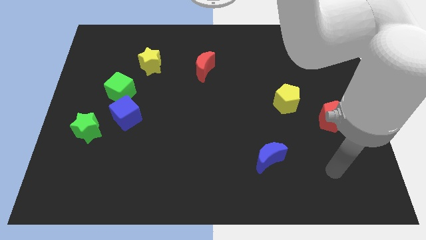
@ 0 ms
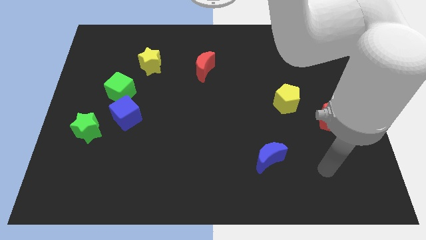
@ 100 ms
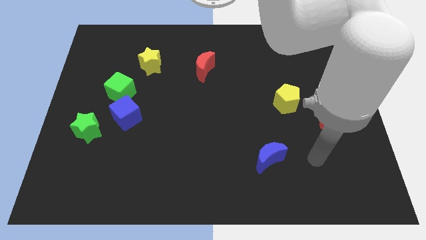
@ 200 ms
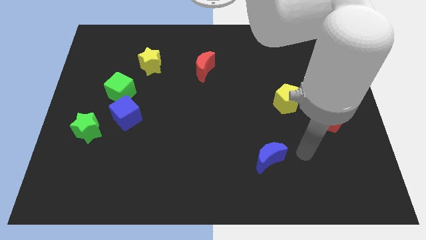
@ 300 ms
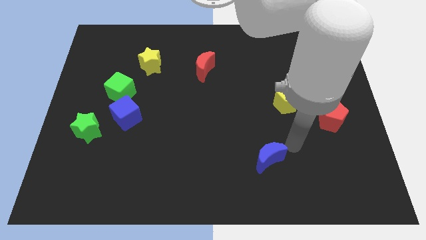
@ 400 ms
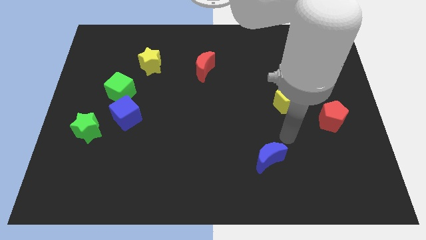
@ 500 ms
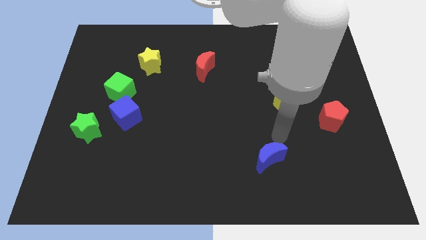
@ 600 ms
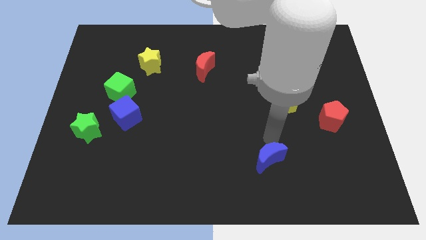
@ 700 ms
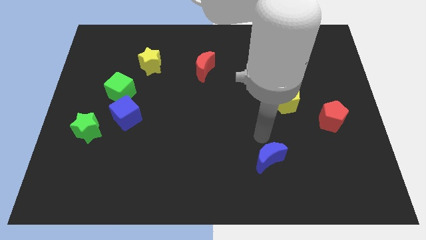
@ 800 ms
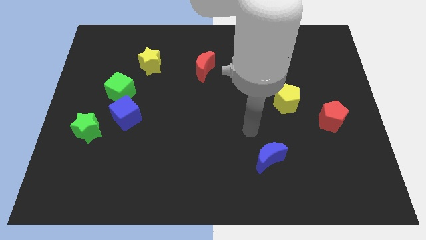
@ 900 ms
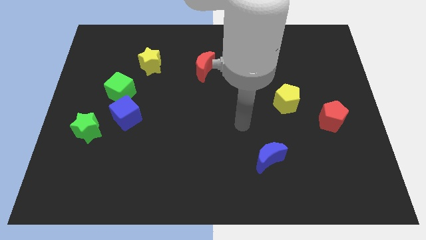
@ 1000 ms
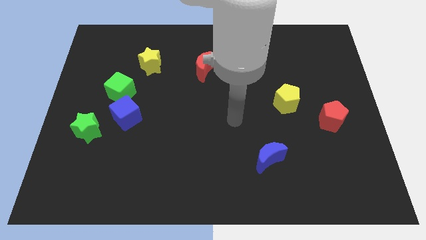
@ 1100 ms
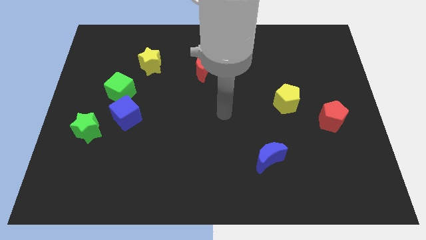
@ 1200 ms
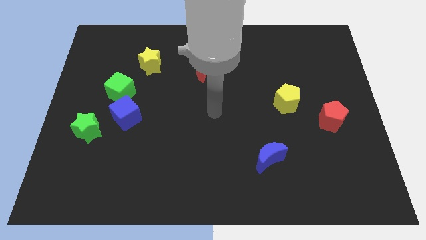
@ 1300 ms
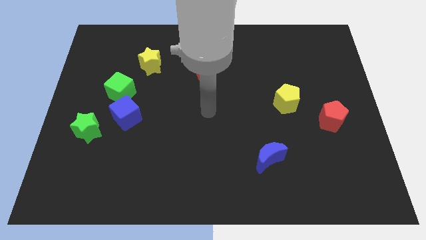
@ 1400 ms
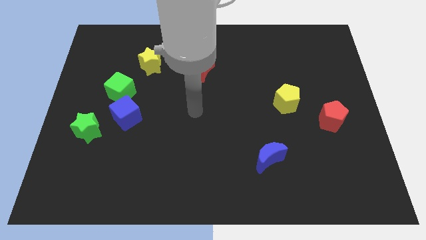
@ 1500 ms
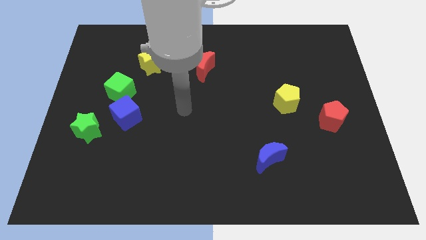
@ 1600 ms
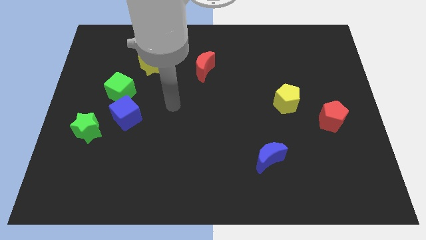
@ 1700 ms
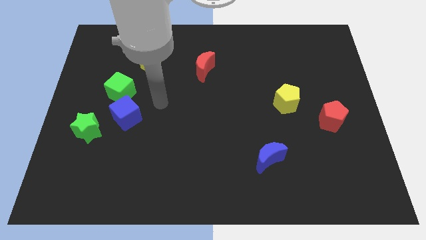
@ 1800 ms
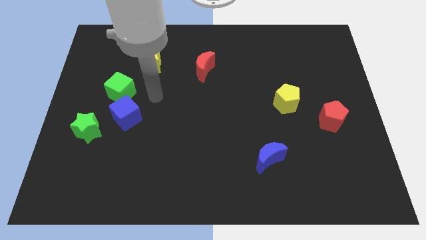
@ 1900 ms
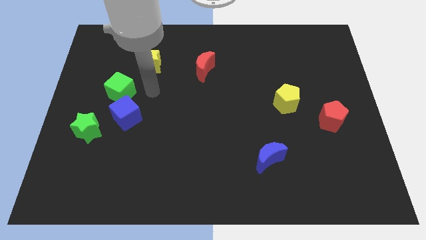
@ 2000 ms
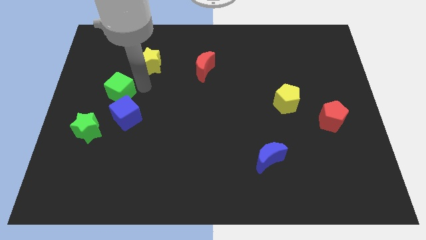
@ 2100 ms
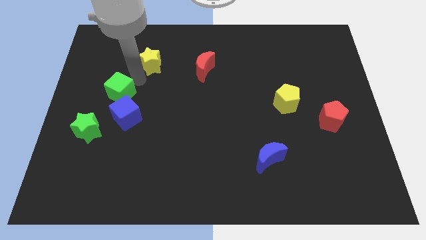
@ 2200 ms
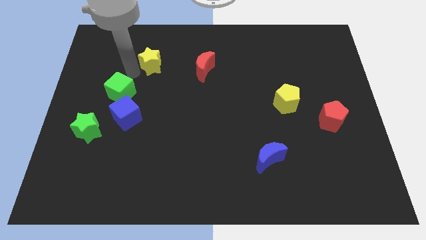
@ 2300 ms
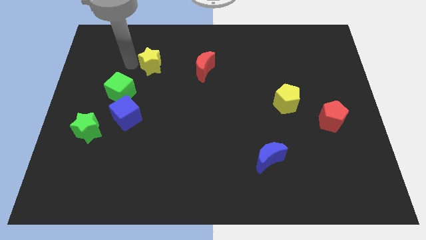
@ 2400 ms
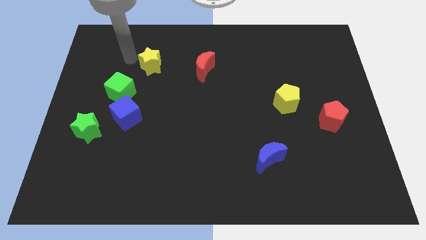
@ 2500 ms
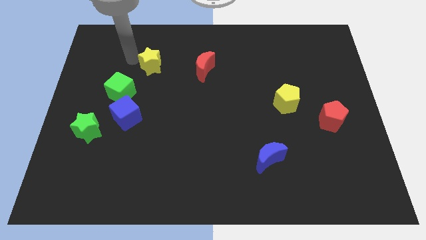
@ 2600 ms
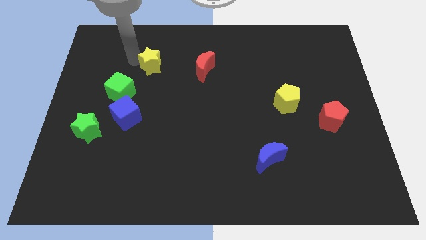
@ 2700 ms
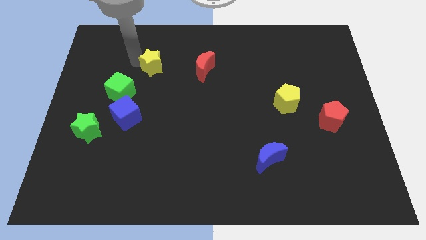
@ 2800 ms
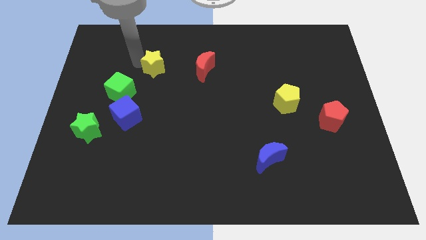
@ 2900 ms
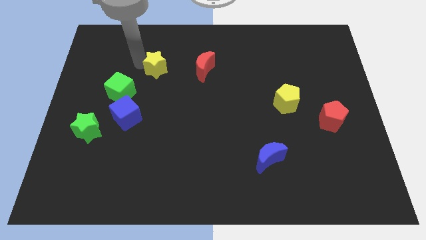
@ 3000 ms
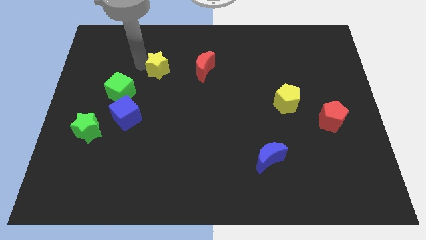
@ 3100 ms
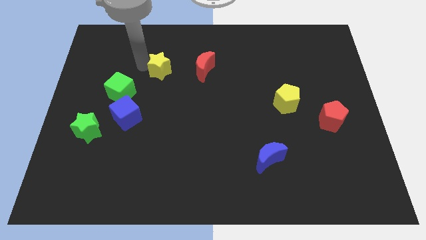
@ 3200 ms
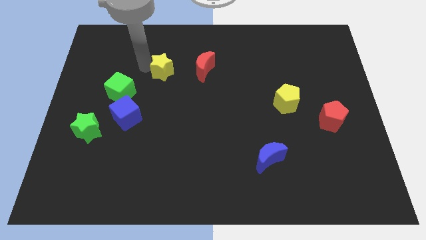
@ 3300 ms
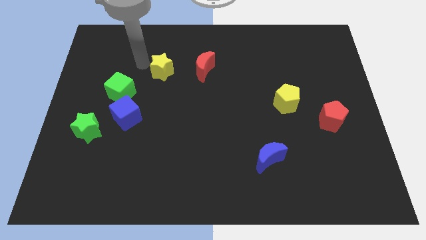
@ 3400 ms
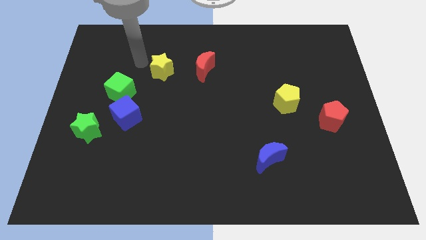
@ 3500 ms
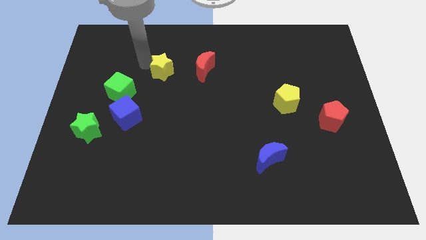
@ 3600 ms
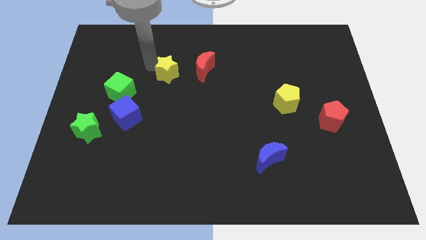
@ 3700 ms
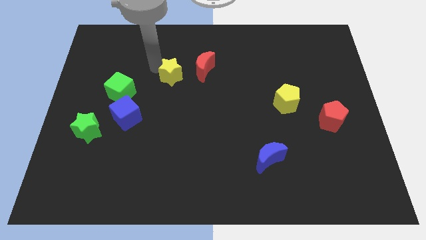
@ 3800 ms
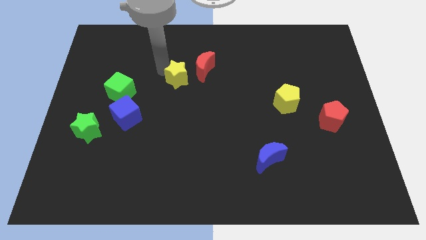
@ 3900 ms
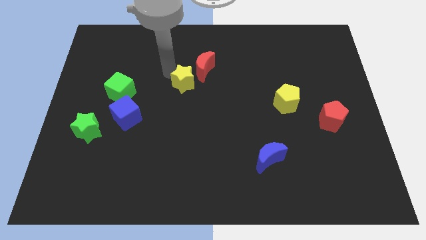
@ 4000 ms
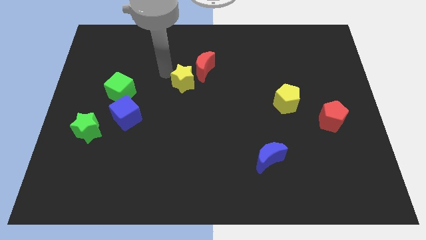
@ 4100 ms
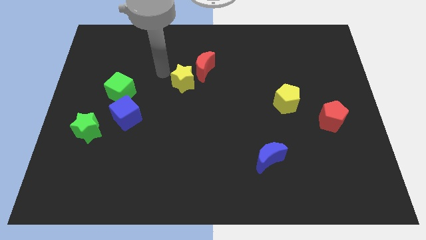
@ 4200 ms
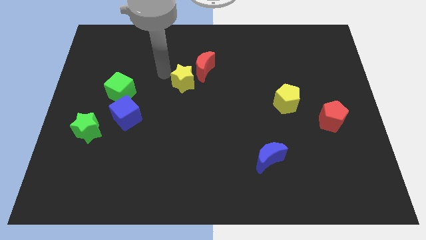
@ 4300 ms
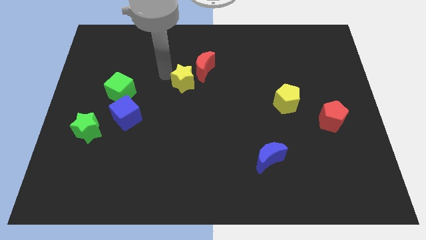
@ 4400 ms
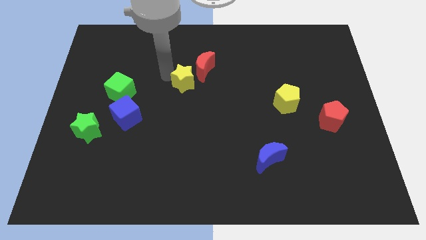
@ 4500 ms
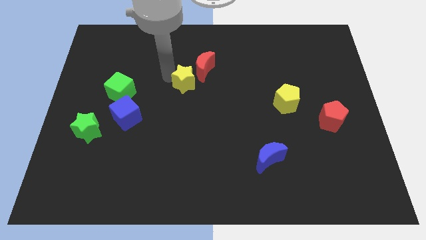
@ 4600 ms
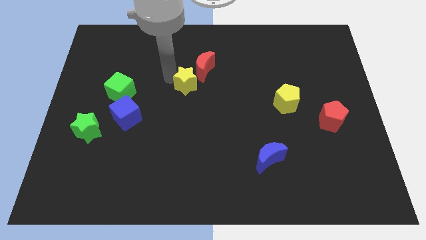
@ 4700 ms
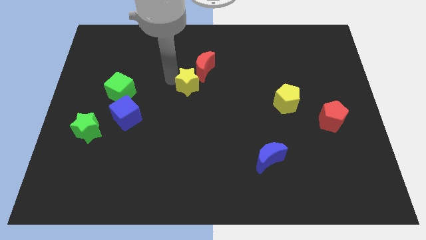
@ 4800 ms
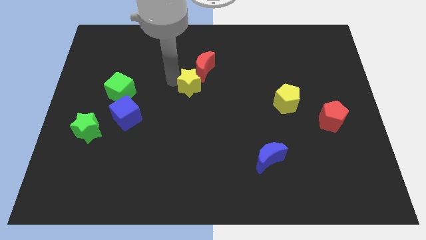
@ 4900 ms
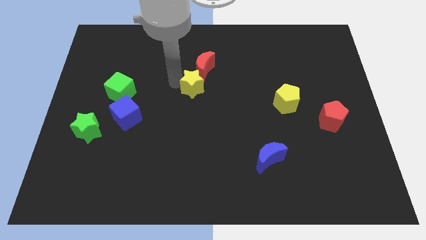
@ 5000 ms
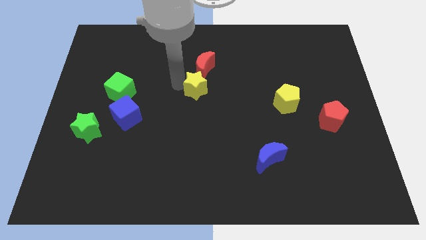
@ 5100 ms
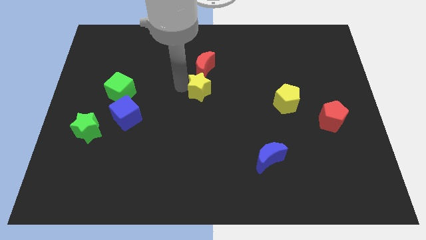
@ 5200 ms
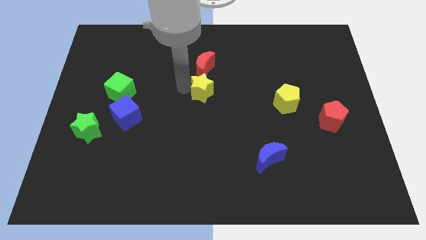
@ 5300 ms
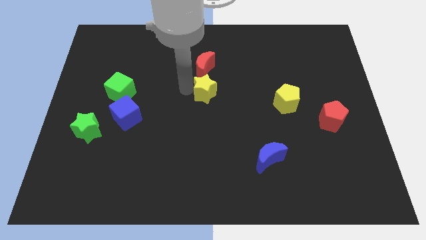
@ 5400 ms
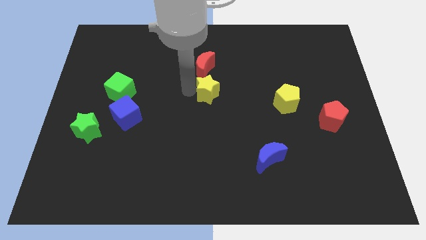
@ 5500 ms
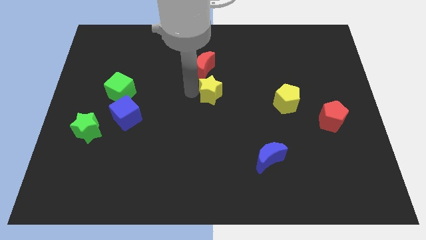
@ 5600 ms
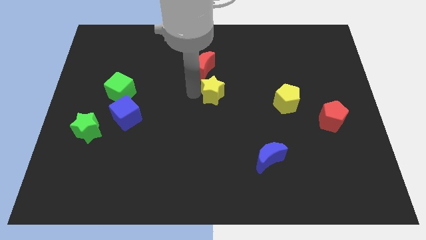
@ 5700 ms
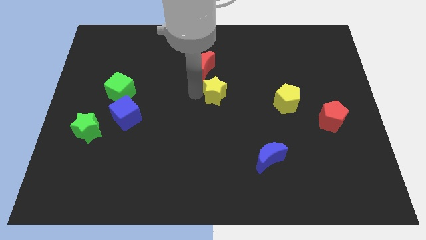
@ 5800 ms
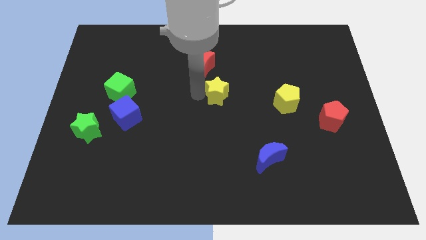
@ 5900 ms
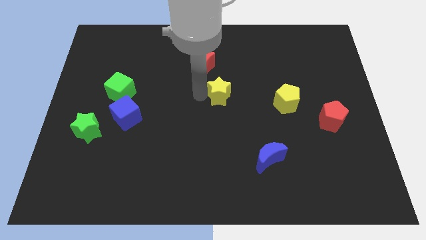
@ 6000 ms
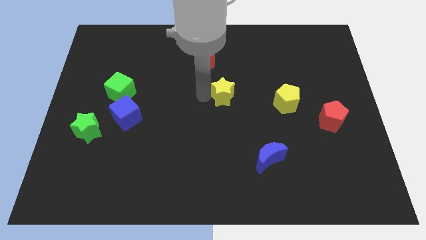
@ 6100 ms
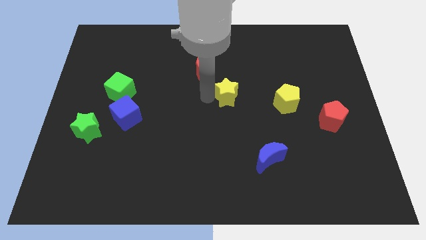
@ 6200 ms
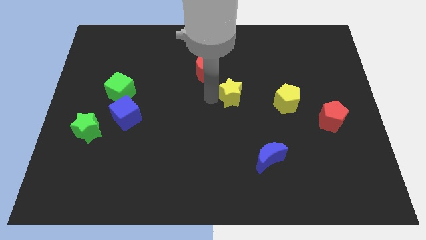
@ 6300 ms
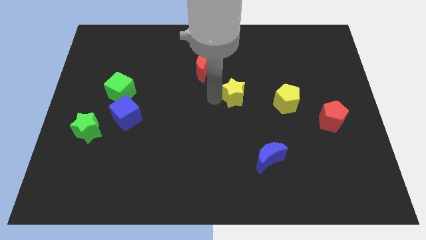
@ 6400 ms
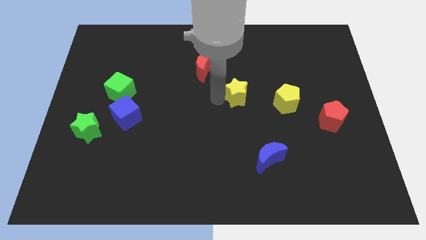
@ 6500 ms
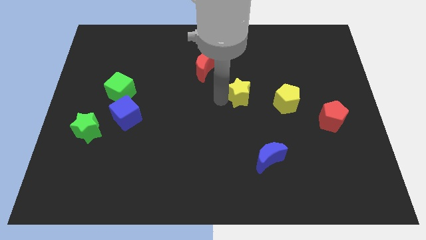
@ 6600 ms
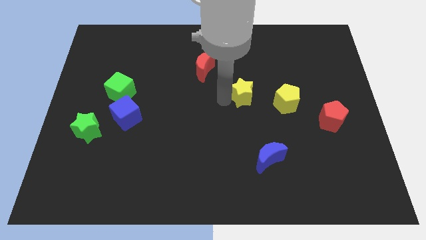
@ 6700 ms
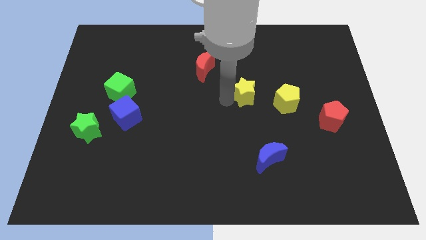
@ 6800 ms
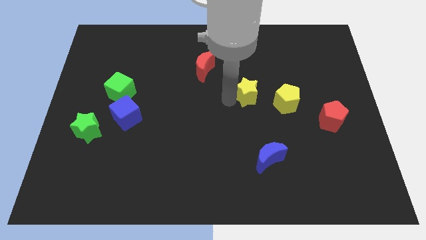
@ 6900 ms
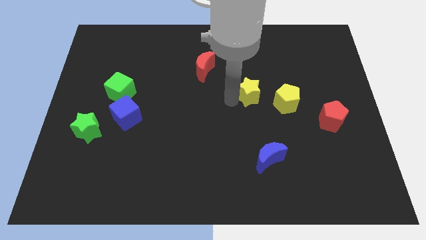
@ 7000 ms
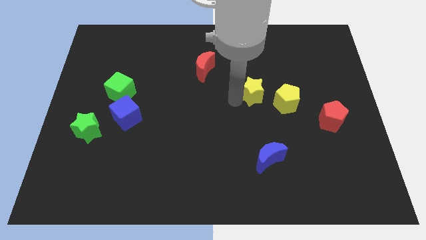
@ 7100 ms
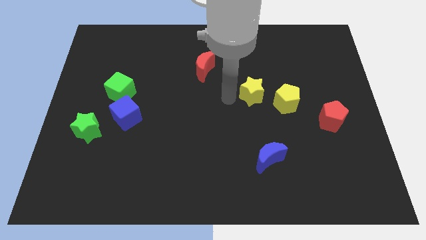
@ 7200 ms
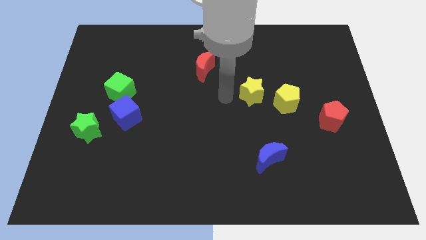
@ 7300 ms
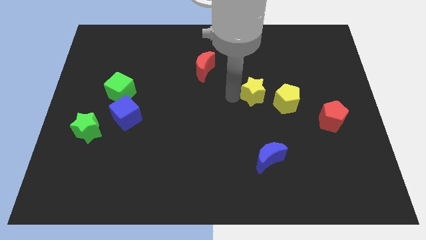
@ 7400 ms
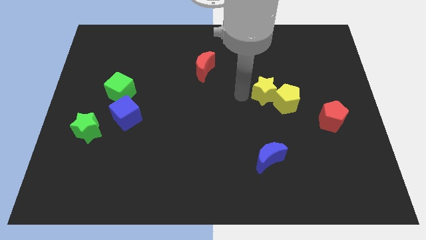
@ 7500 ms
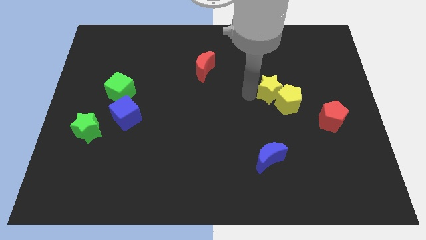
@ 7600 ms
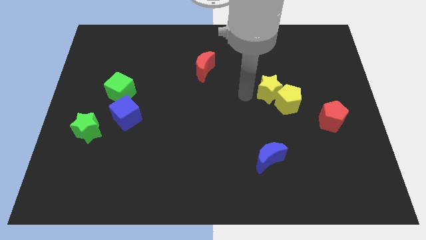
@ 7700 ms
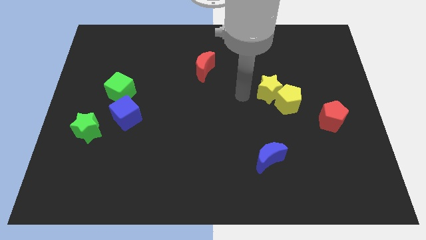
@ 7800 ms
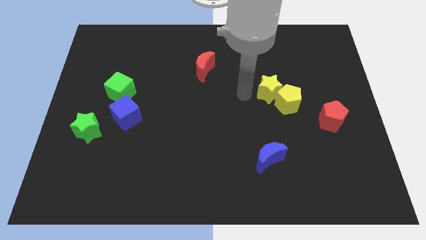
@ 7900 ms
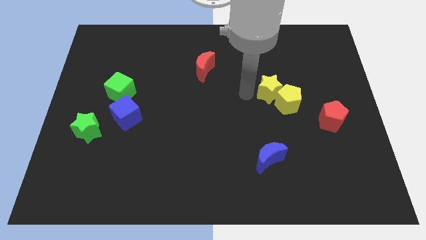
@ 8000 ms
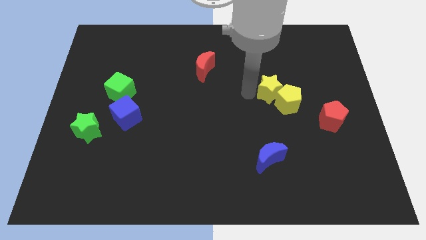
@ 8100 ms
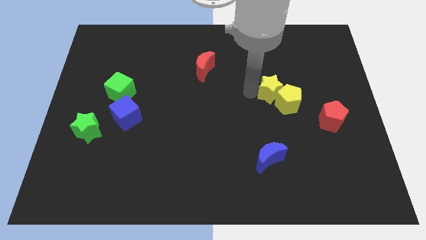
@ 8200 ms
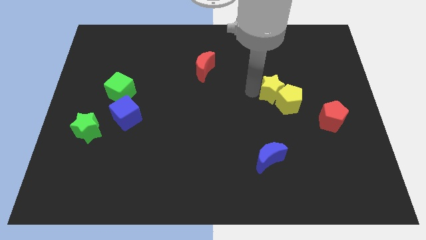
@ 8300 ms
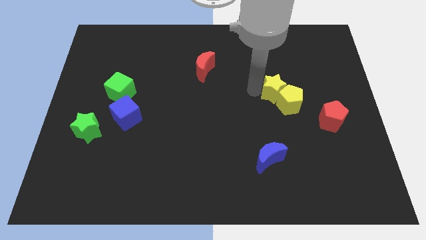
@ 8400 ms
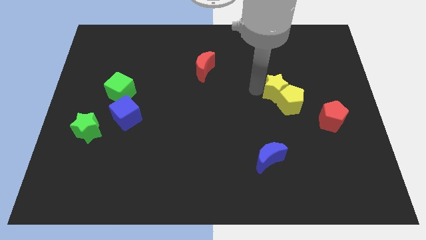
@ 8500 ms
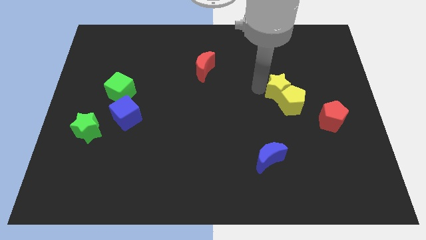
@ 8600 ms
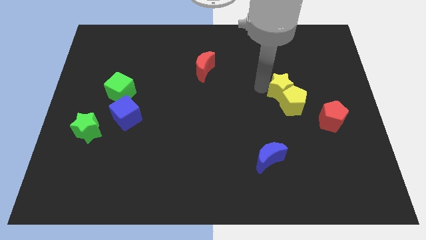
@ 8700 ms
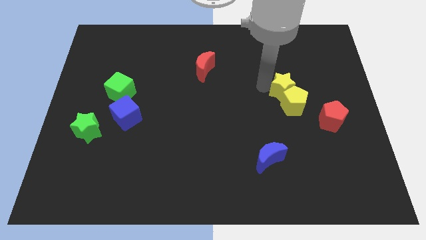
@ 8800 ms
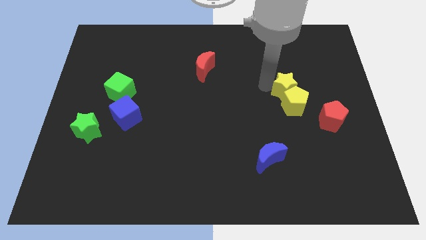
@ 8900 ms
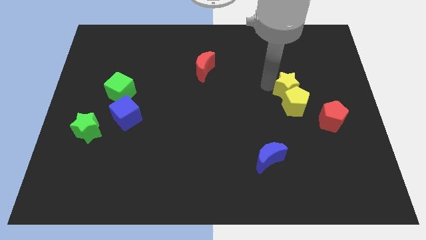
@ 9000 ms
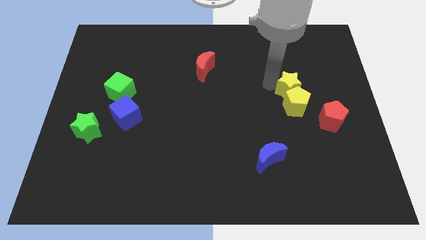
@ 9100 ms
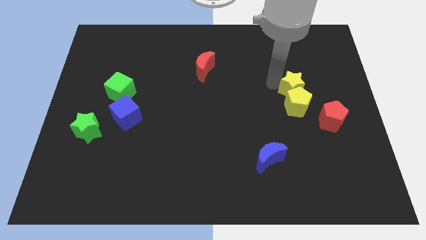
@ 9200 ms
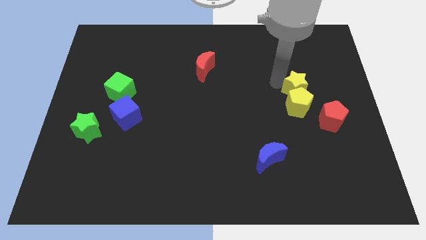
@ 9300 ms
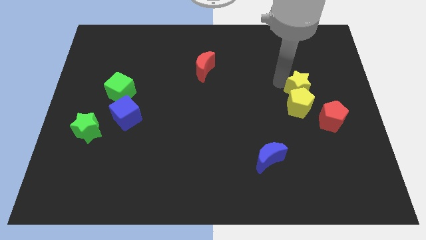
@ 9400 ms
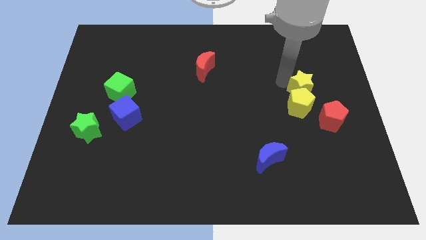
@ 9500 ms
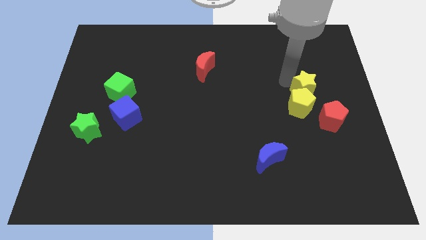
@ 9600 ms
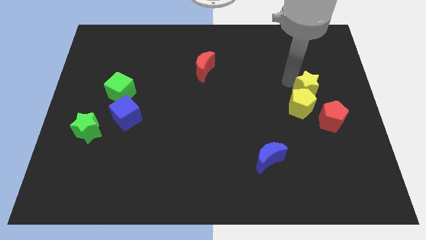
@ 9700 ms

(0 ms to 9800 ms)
move the yellow star to the top of the red pentagon
